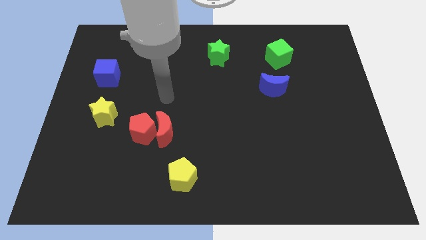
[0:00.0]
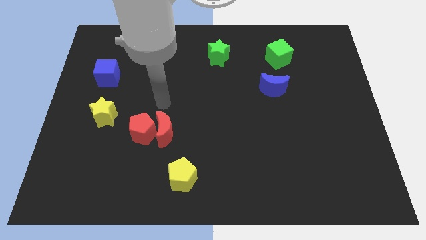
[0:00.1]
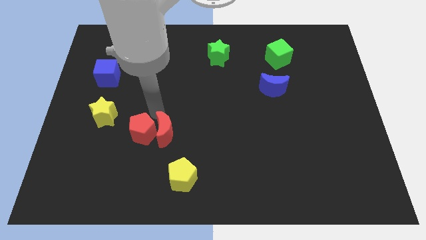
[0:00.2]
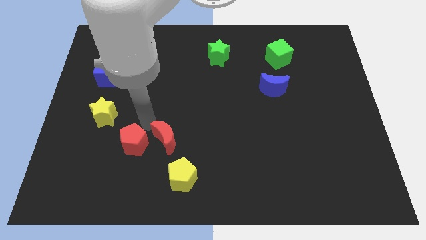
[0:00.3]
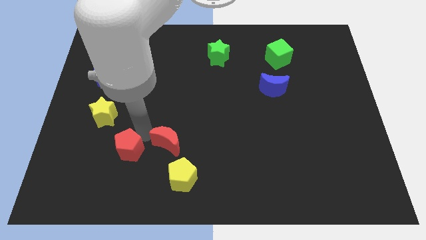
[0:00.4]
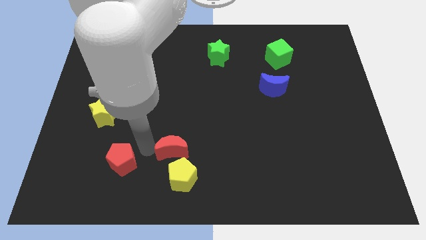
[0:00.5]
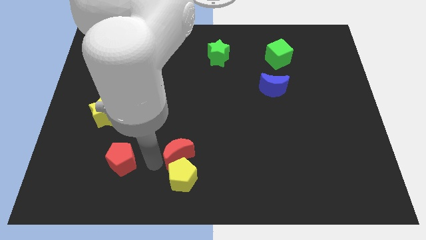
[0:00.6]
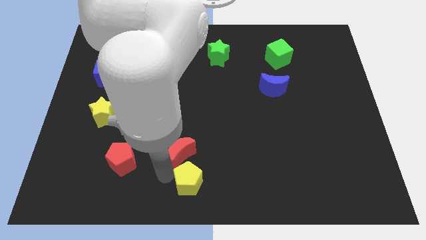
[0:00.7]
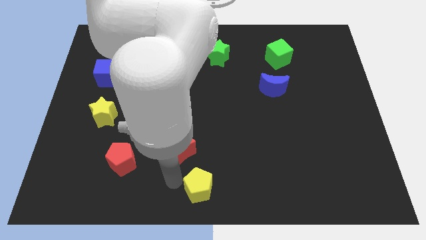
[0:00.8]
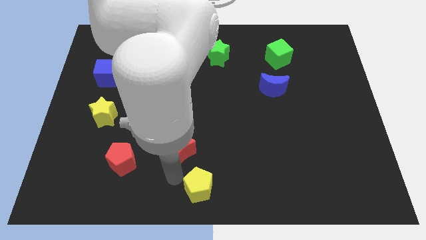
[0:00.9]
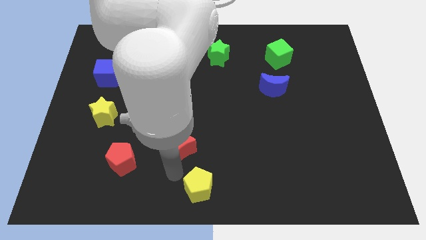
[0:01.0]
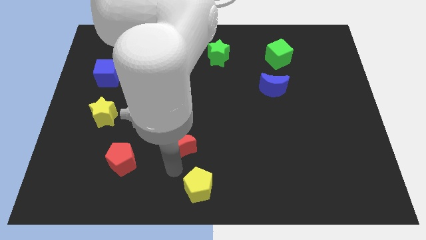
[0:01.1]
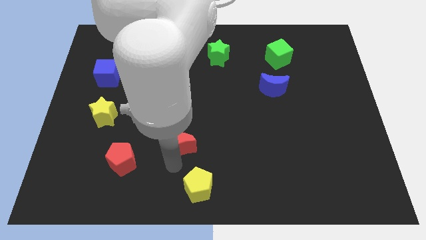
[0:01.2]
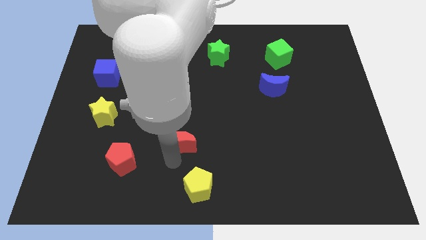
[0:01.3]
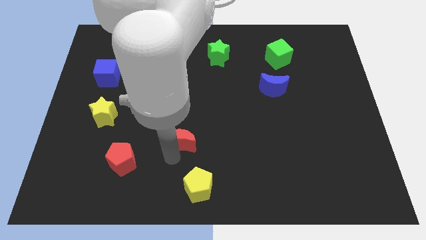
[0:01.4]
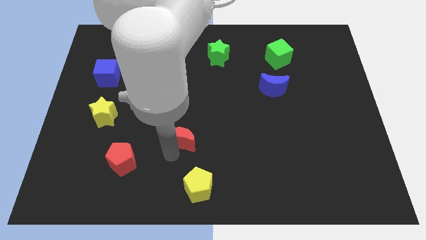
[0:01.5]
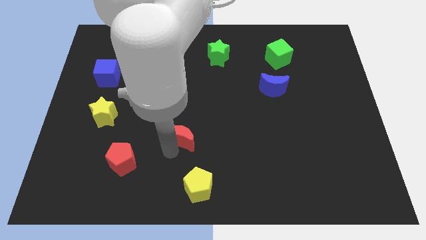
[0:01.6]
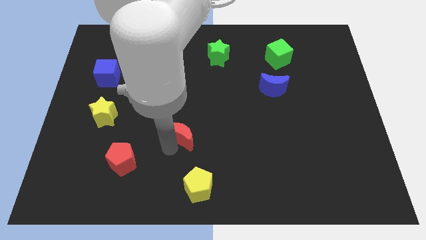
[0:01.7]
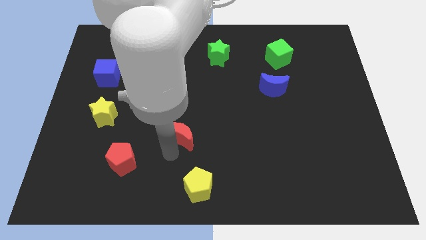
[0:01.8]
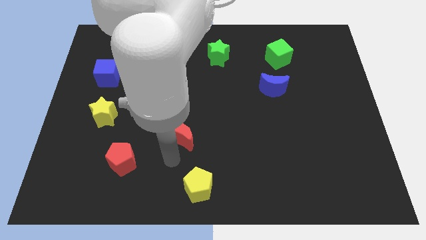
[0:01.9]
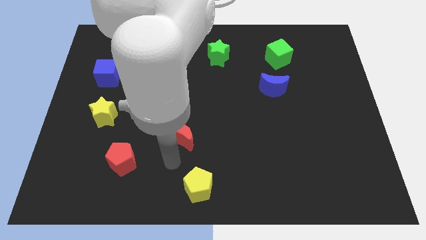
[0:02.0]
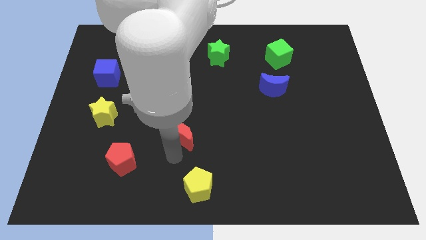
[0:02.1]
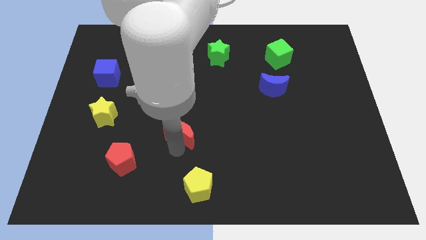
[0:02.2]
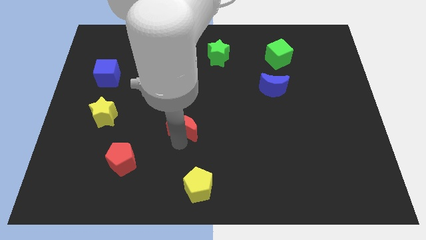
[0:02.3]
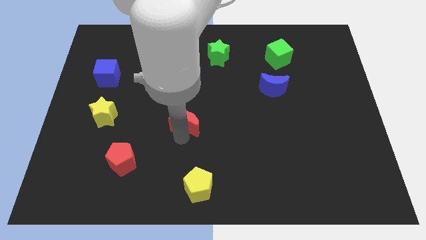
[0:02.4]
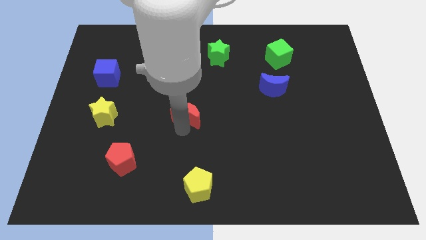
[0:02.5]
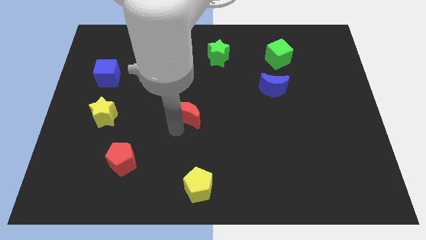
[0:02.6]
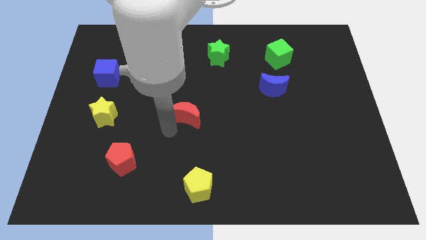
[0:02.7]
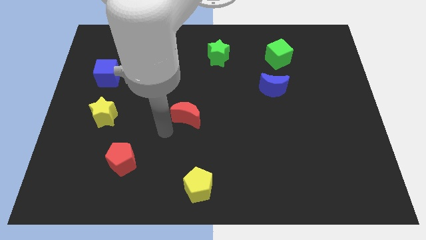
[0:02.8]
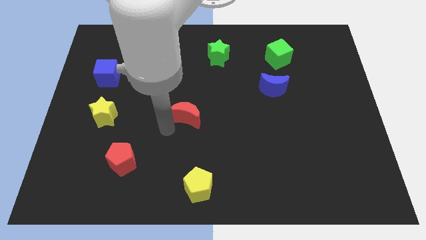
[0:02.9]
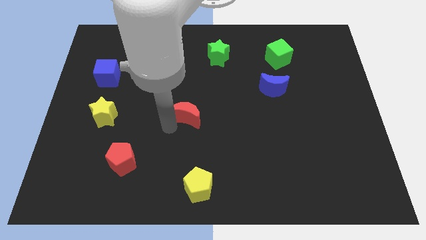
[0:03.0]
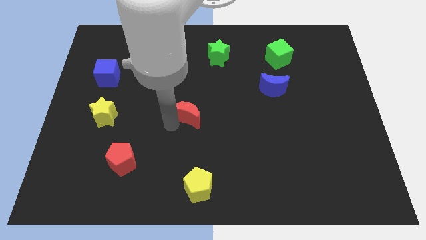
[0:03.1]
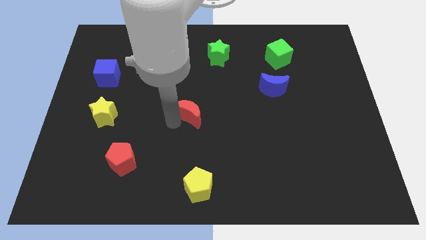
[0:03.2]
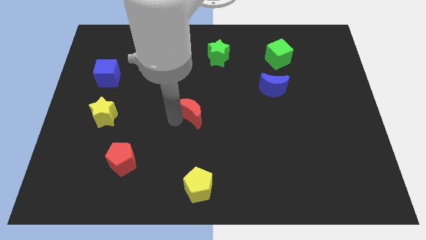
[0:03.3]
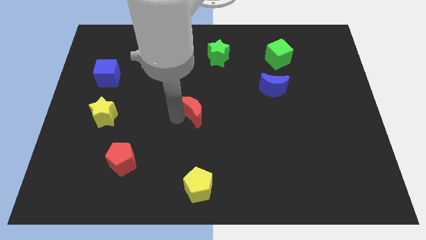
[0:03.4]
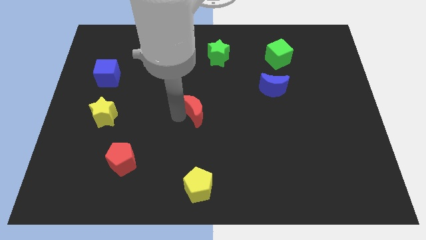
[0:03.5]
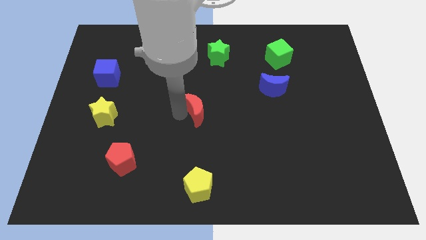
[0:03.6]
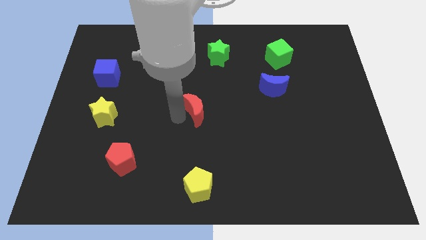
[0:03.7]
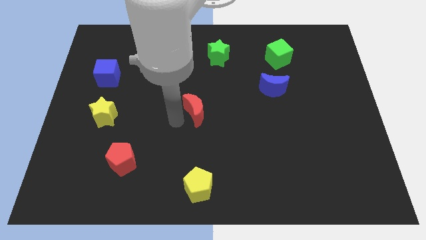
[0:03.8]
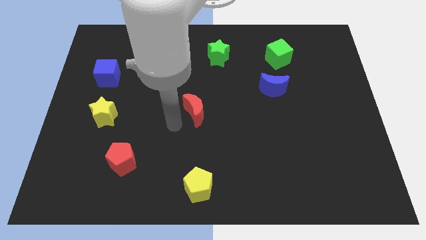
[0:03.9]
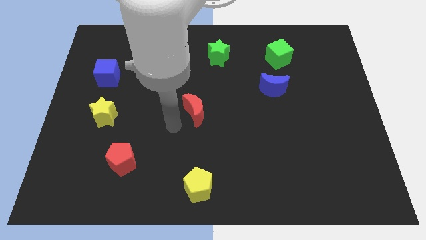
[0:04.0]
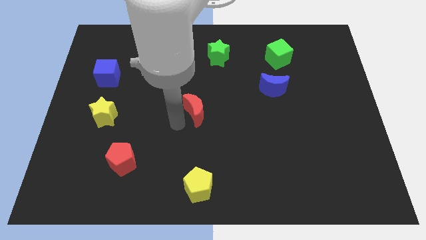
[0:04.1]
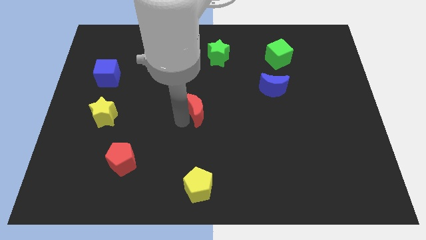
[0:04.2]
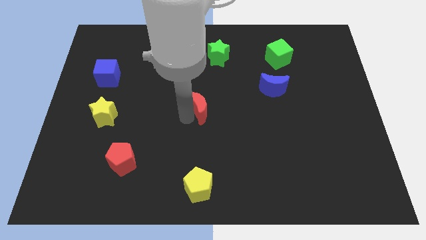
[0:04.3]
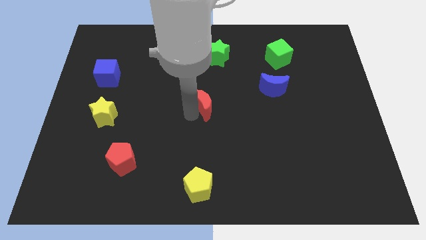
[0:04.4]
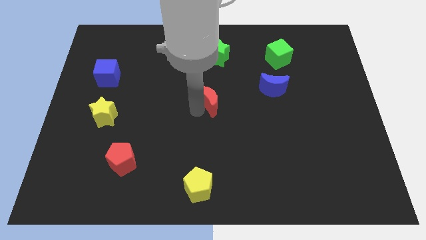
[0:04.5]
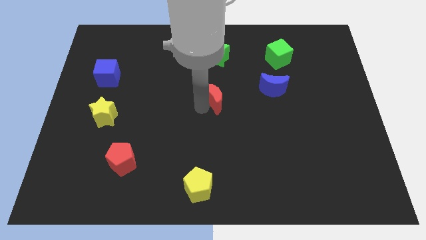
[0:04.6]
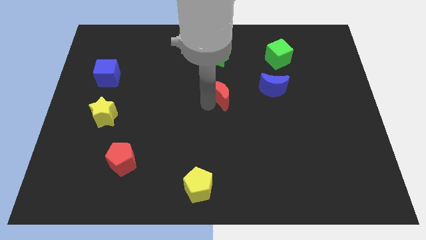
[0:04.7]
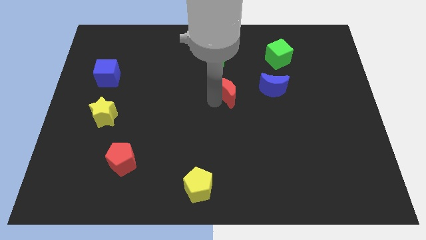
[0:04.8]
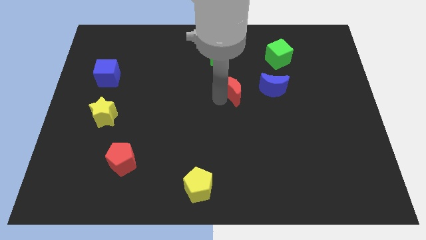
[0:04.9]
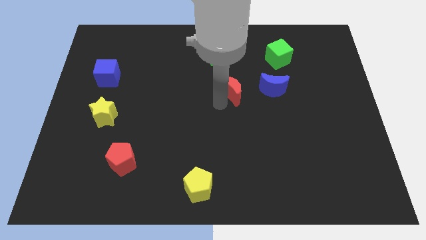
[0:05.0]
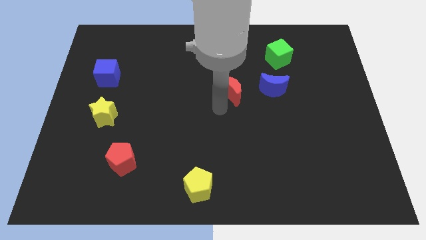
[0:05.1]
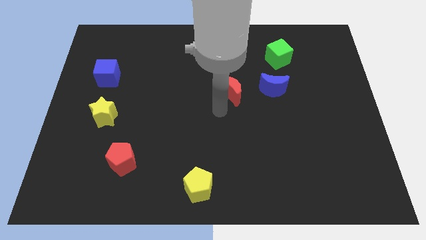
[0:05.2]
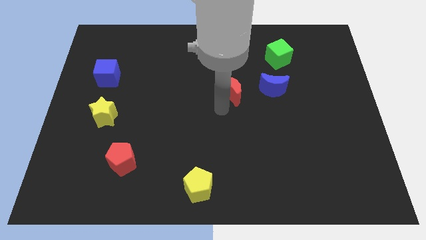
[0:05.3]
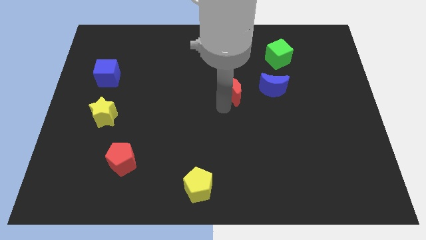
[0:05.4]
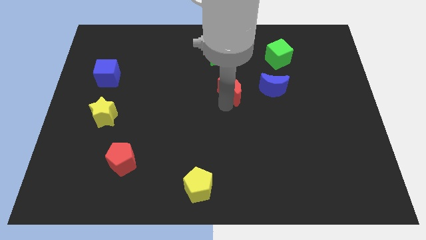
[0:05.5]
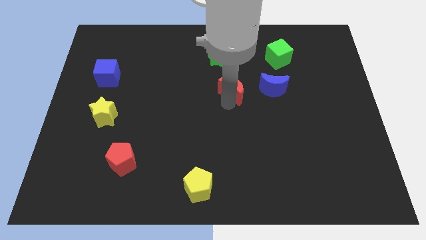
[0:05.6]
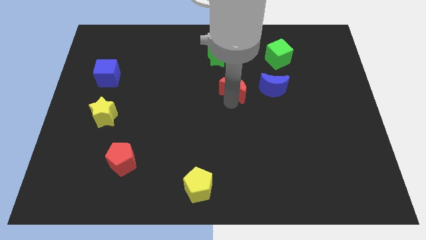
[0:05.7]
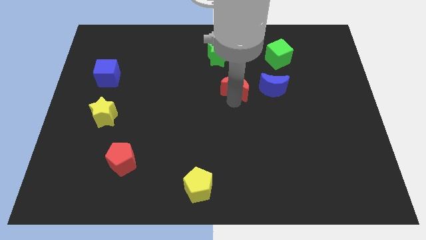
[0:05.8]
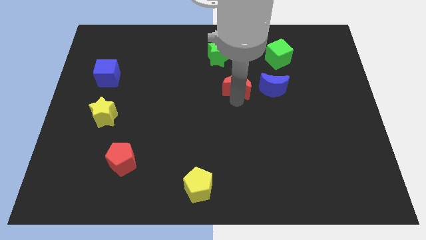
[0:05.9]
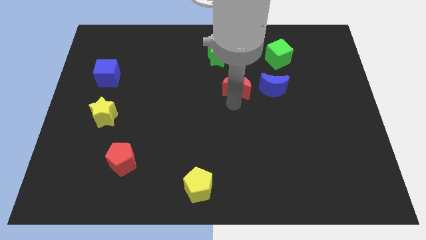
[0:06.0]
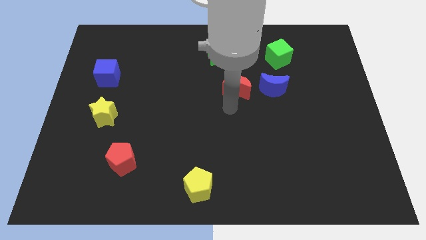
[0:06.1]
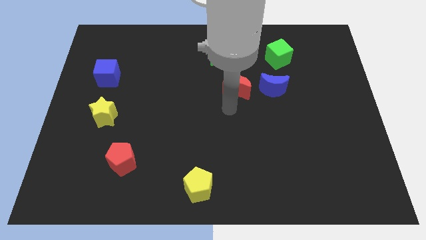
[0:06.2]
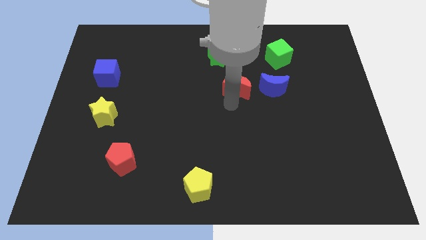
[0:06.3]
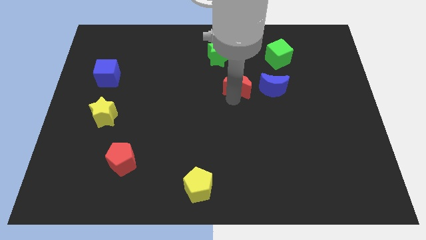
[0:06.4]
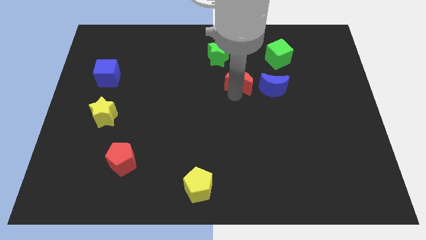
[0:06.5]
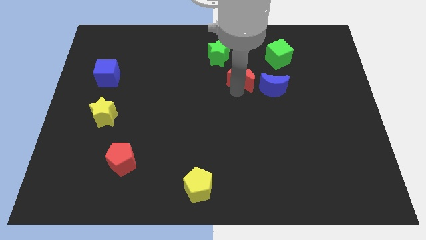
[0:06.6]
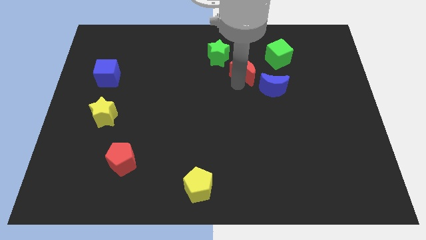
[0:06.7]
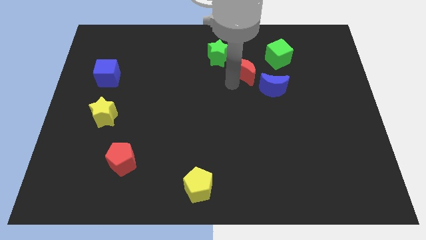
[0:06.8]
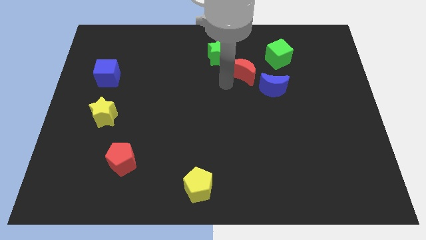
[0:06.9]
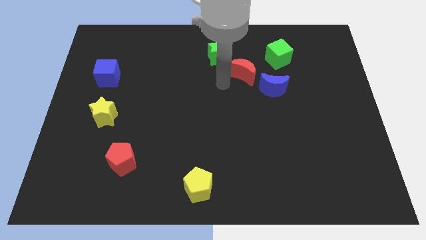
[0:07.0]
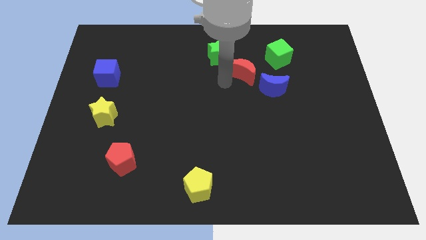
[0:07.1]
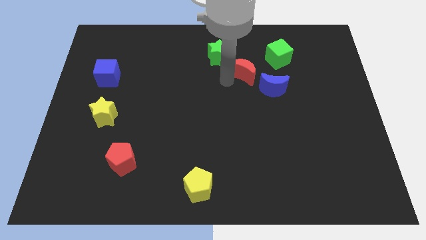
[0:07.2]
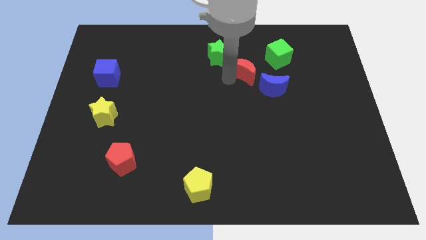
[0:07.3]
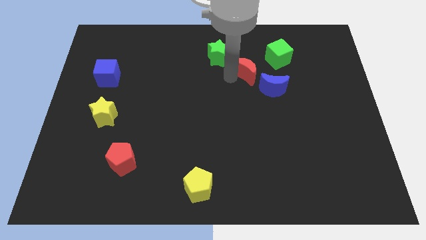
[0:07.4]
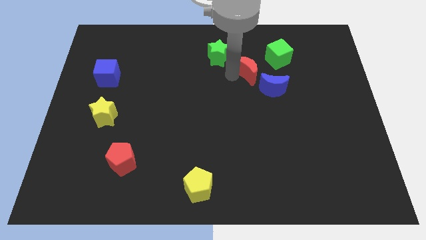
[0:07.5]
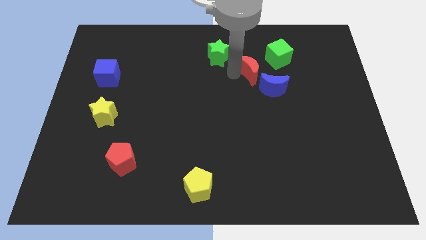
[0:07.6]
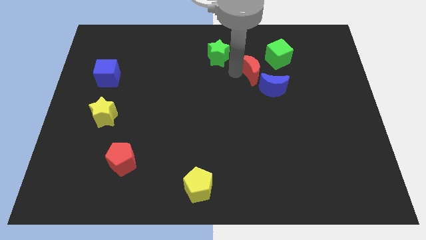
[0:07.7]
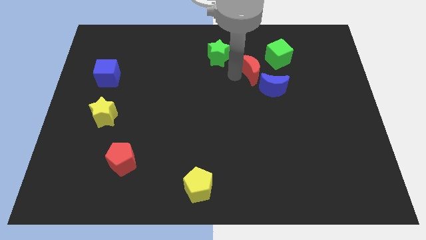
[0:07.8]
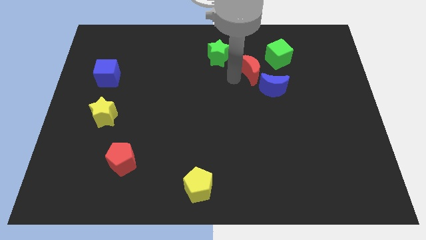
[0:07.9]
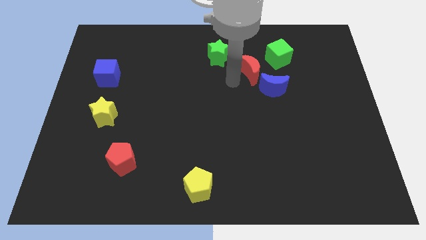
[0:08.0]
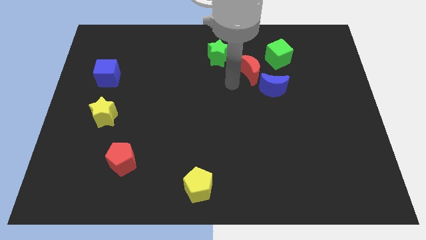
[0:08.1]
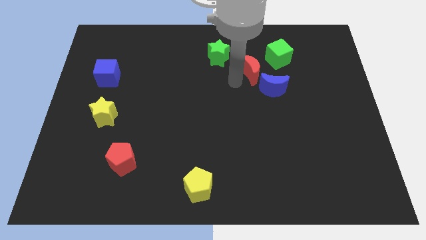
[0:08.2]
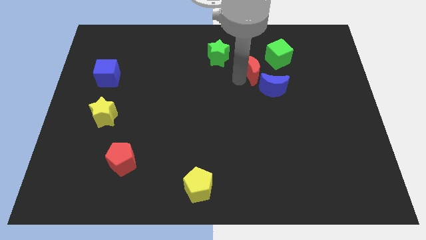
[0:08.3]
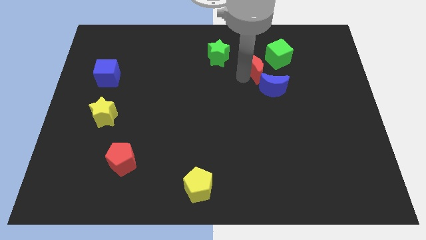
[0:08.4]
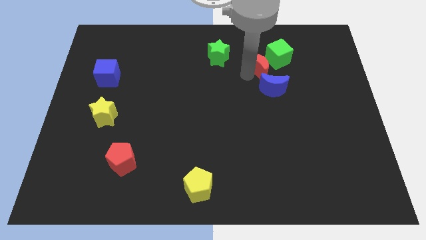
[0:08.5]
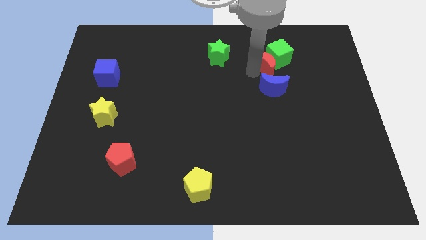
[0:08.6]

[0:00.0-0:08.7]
push the red moon to the green cube
